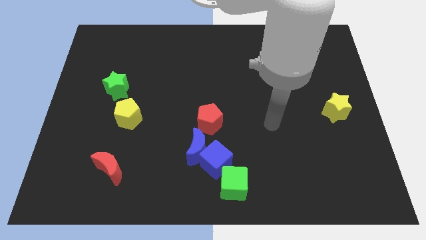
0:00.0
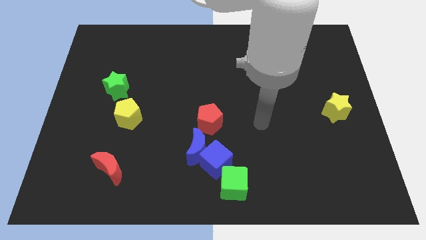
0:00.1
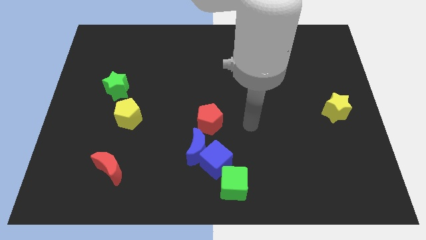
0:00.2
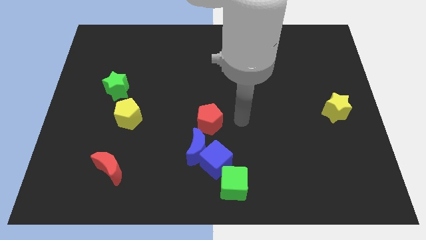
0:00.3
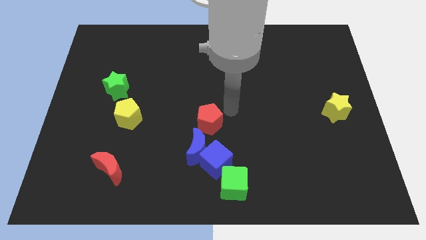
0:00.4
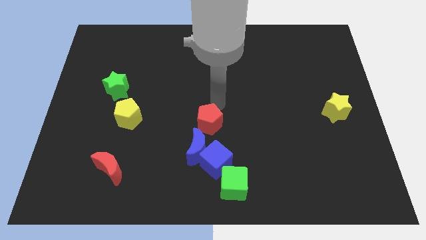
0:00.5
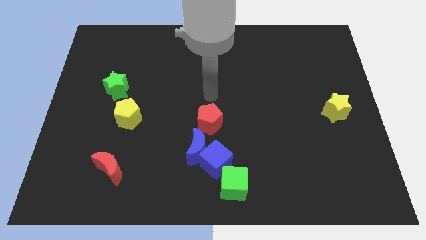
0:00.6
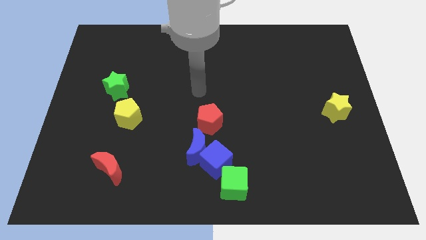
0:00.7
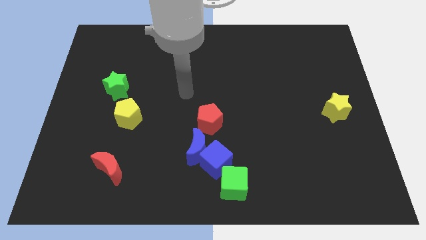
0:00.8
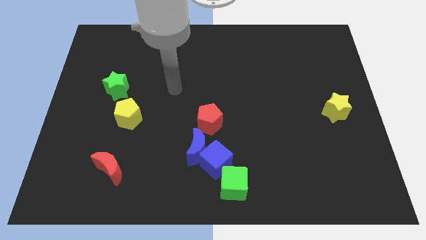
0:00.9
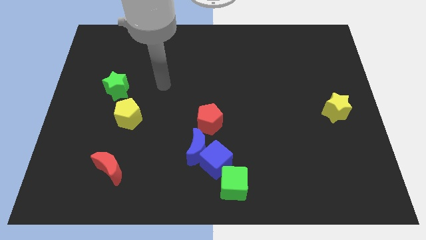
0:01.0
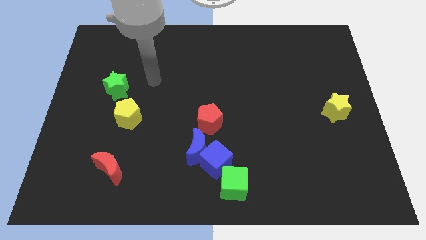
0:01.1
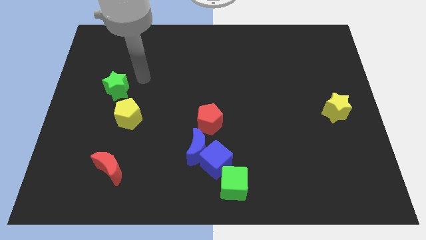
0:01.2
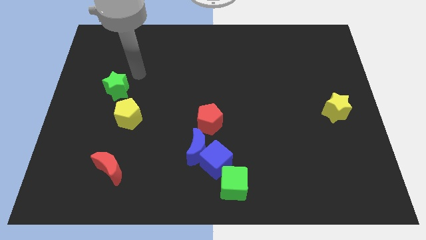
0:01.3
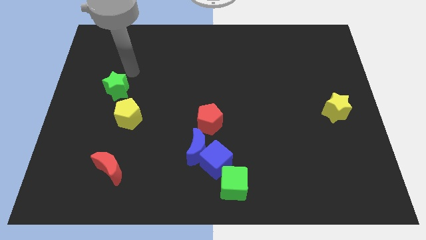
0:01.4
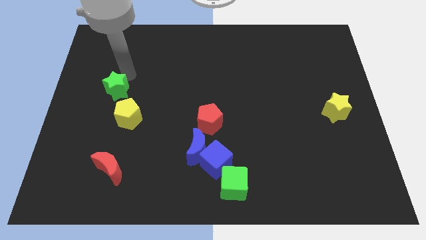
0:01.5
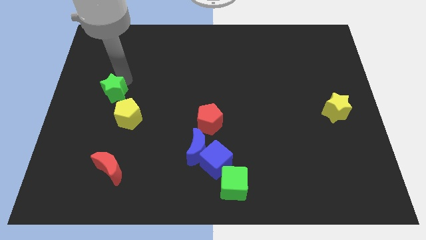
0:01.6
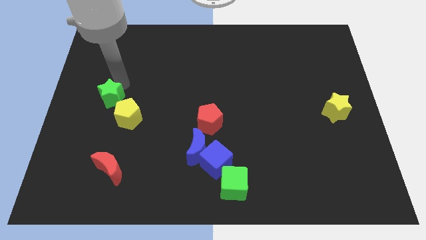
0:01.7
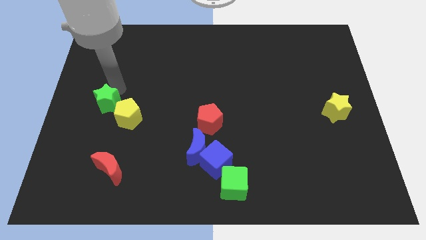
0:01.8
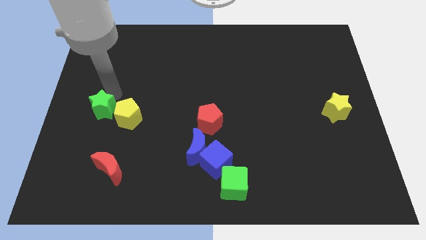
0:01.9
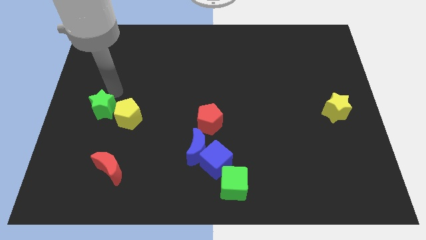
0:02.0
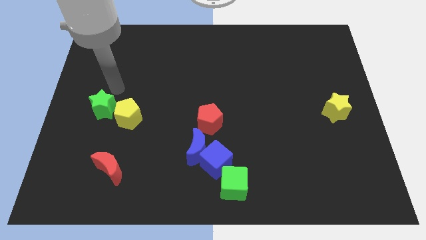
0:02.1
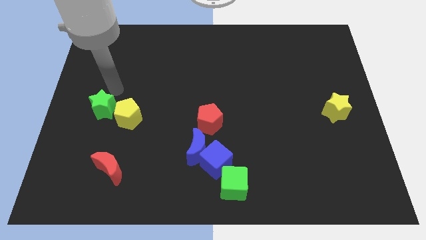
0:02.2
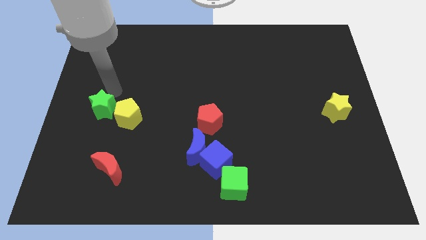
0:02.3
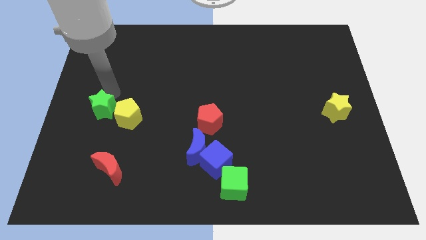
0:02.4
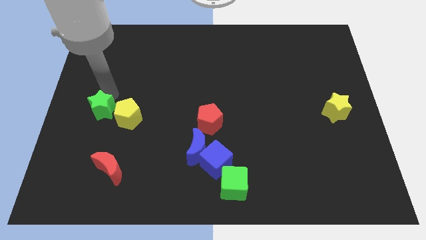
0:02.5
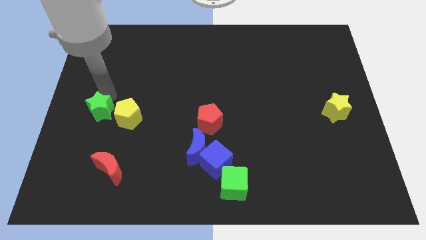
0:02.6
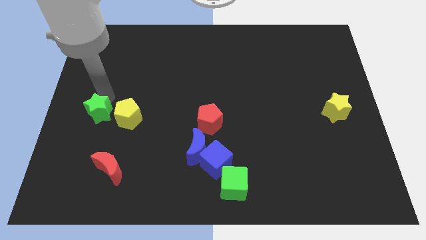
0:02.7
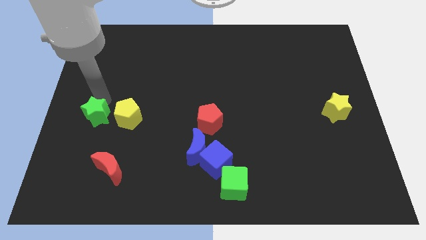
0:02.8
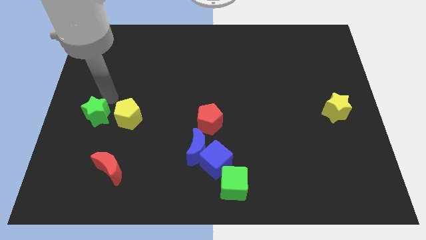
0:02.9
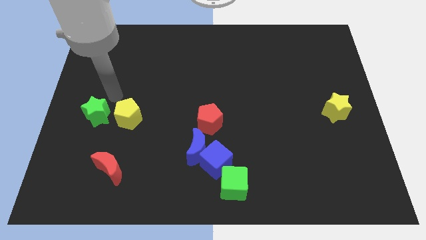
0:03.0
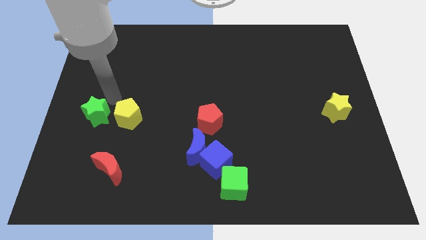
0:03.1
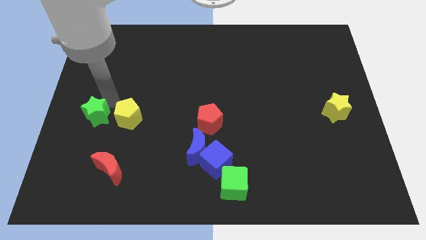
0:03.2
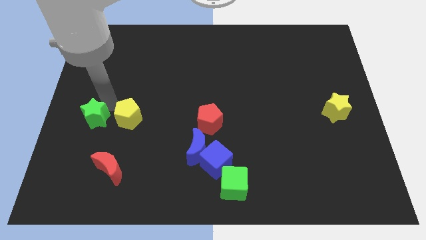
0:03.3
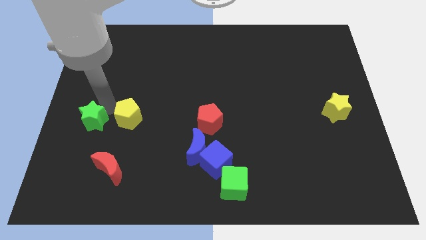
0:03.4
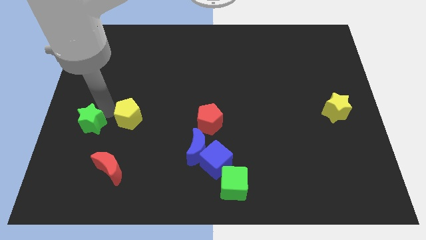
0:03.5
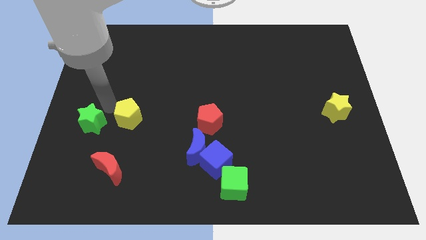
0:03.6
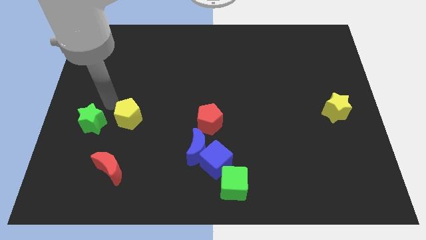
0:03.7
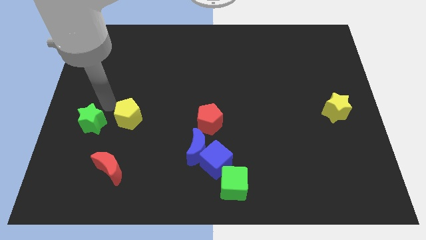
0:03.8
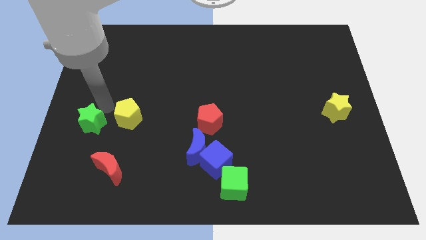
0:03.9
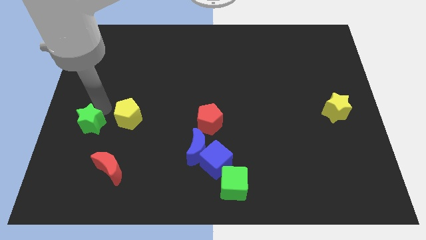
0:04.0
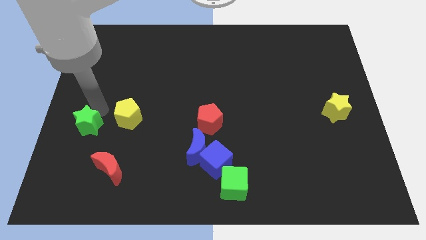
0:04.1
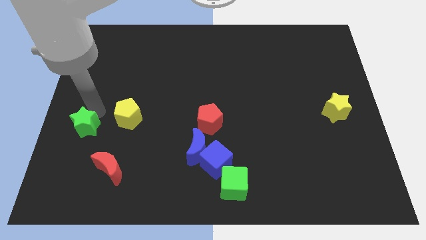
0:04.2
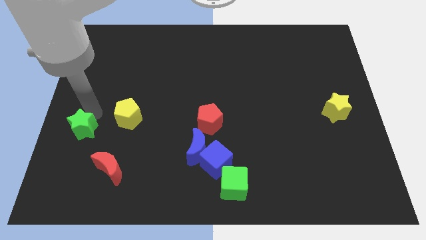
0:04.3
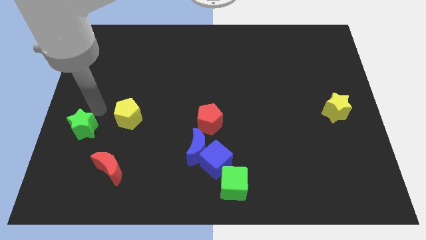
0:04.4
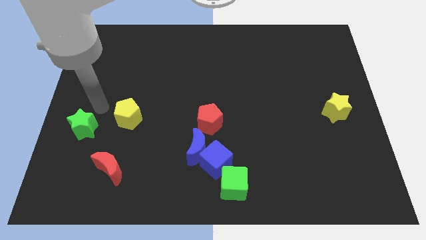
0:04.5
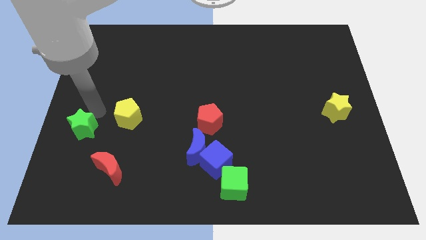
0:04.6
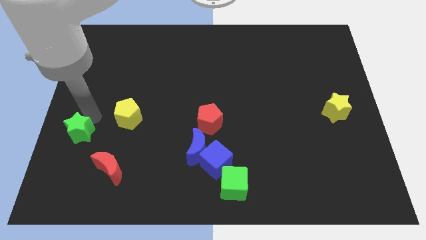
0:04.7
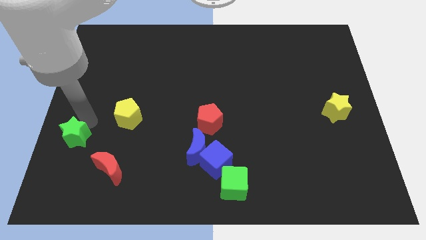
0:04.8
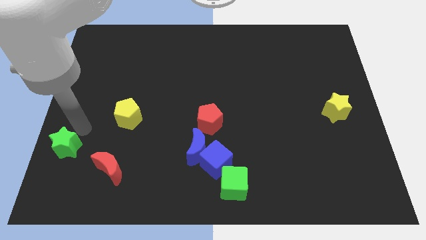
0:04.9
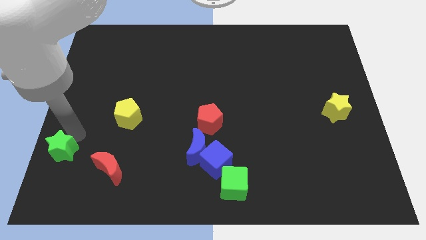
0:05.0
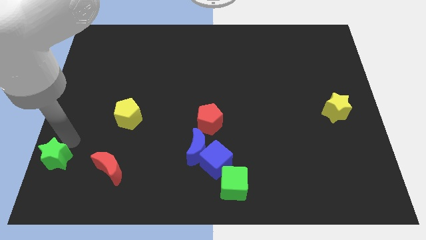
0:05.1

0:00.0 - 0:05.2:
push the green star to the bottom left of the board

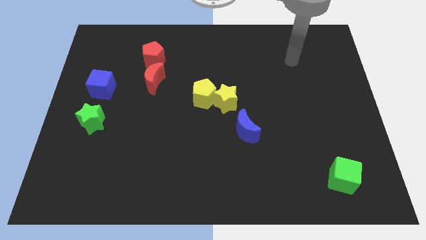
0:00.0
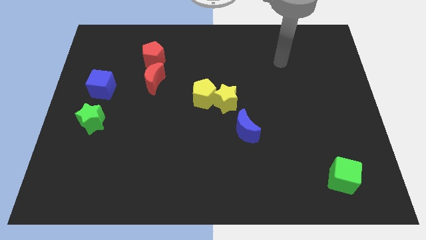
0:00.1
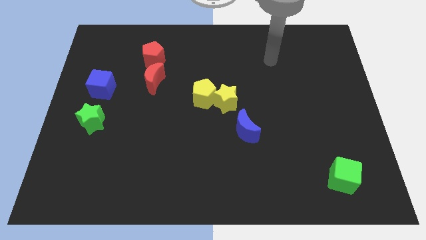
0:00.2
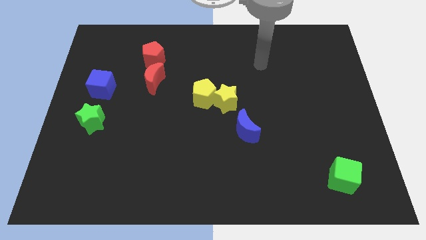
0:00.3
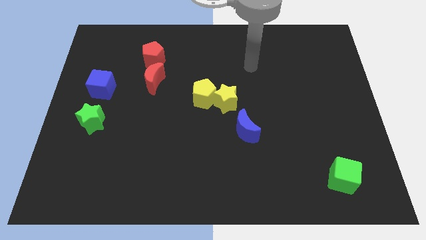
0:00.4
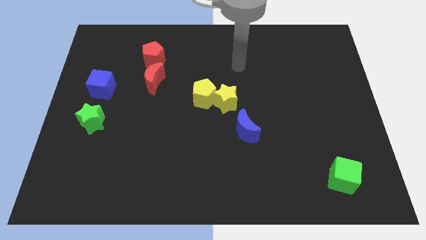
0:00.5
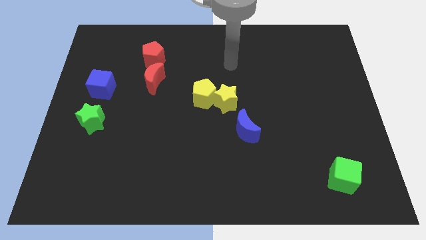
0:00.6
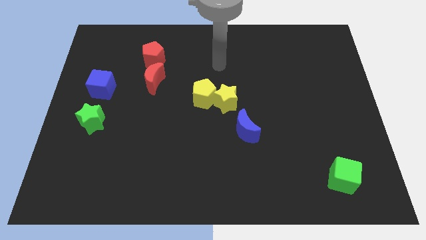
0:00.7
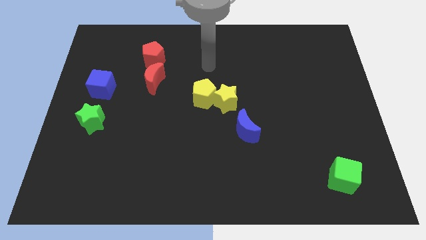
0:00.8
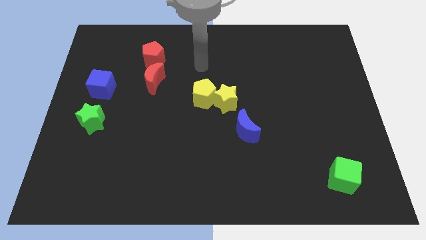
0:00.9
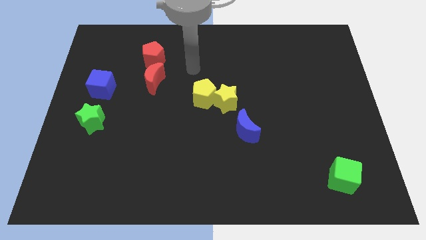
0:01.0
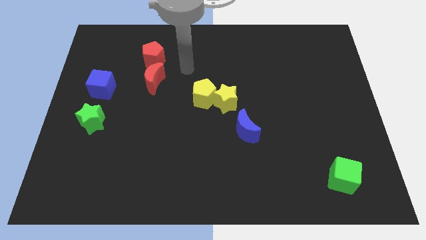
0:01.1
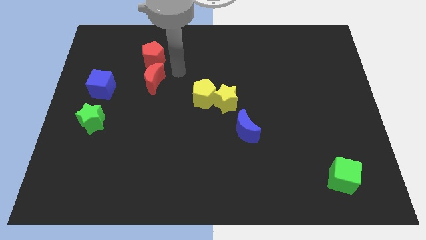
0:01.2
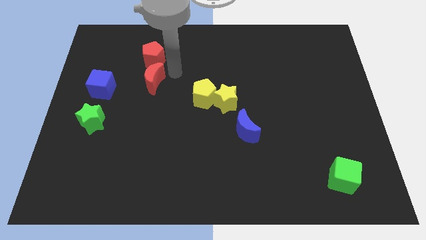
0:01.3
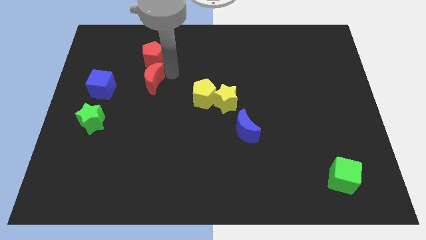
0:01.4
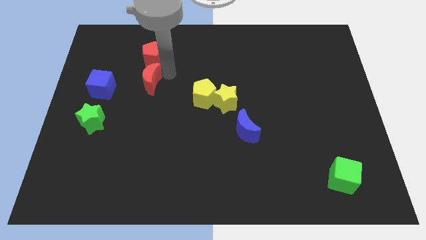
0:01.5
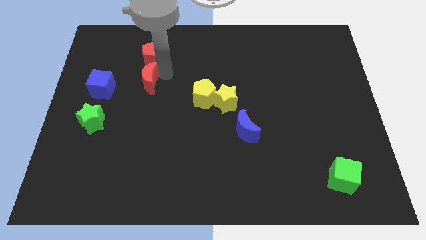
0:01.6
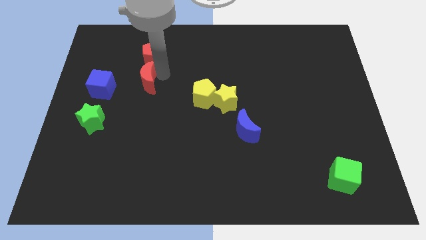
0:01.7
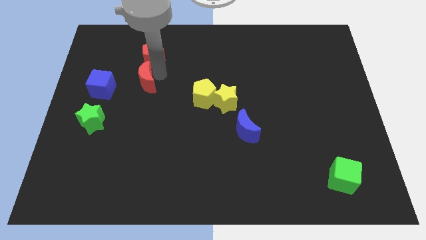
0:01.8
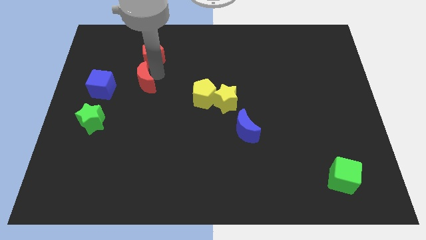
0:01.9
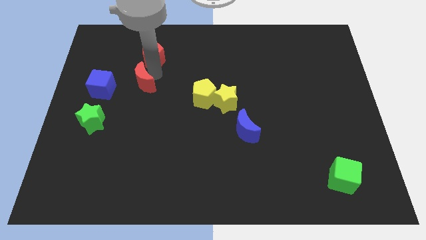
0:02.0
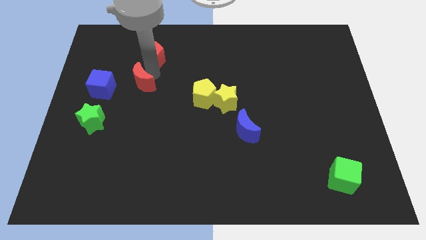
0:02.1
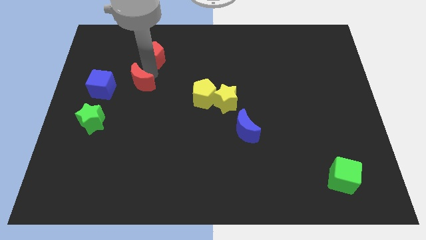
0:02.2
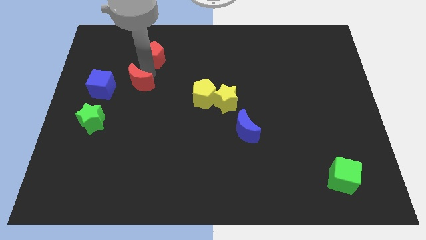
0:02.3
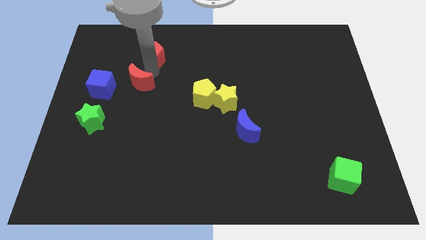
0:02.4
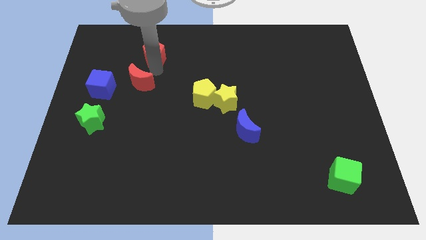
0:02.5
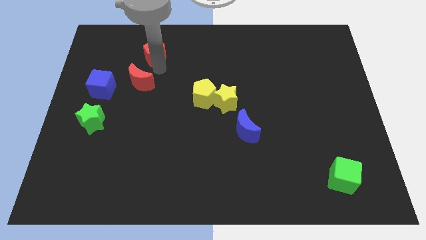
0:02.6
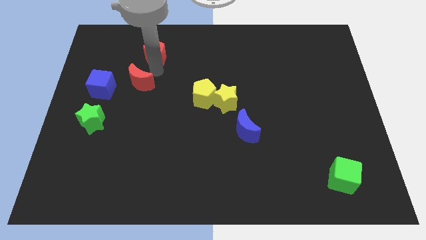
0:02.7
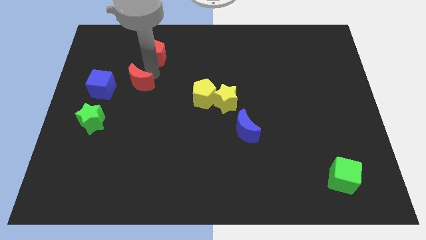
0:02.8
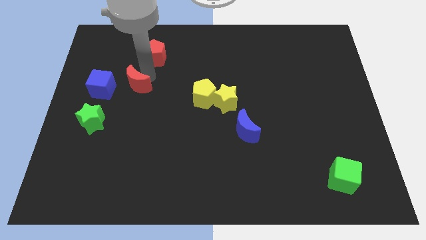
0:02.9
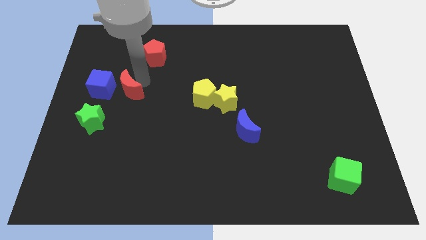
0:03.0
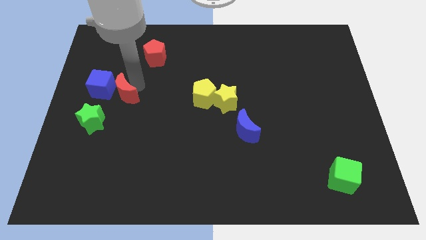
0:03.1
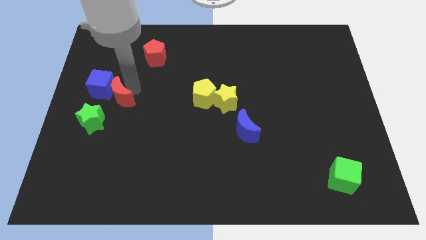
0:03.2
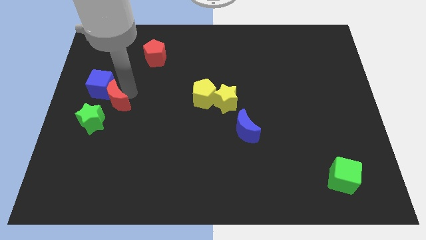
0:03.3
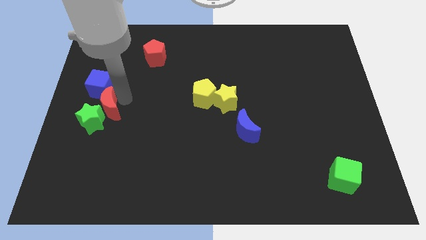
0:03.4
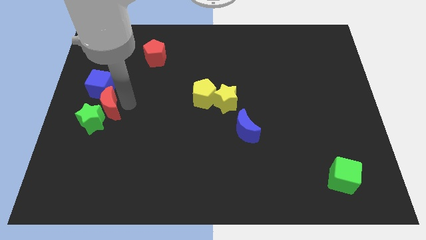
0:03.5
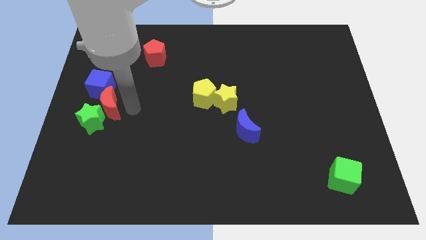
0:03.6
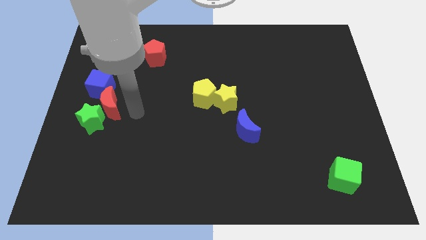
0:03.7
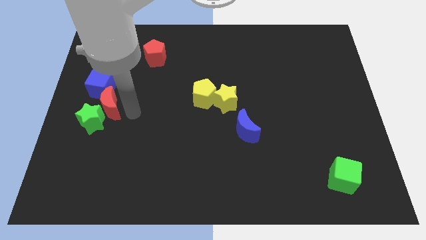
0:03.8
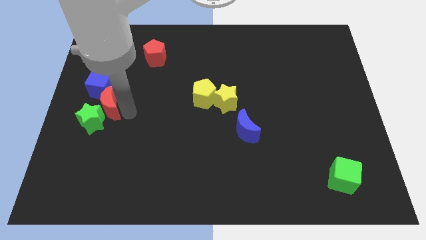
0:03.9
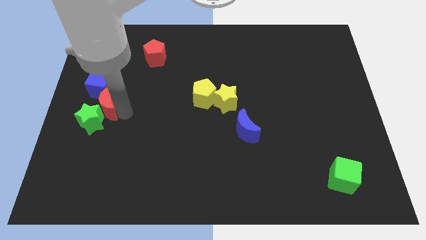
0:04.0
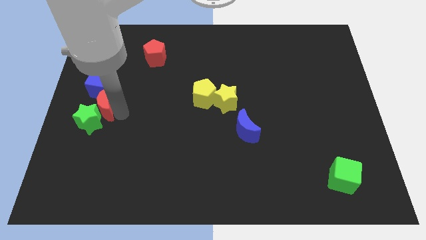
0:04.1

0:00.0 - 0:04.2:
push the red moon to the center left
